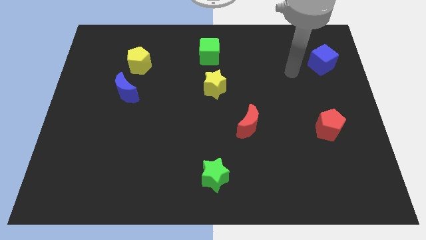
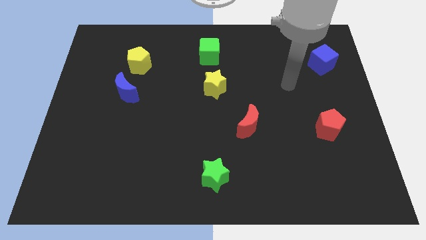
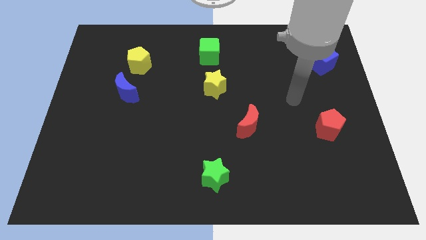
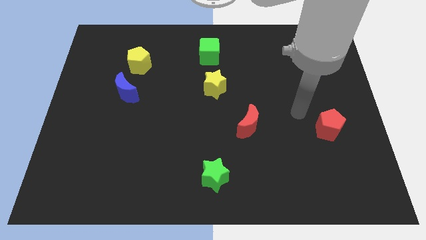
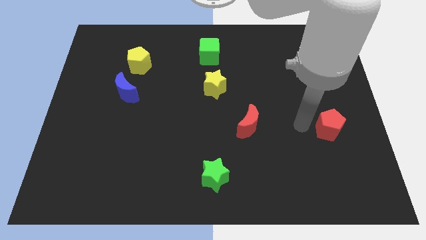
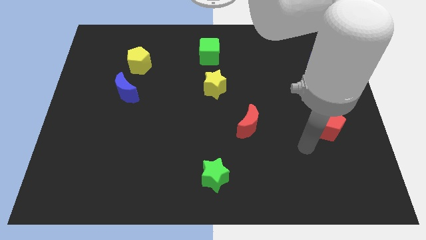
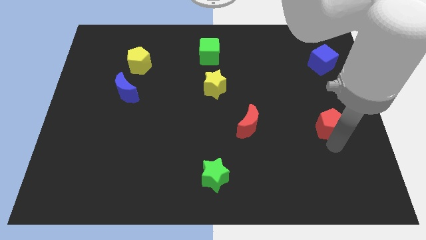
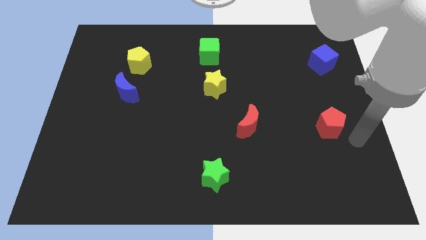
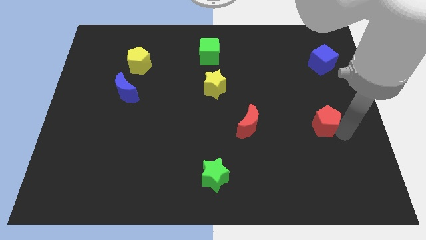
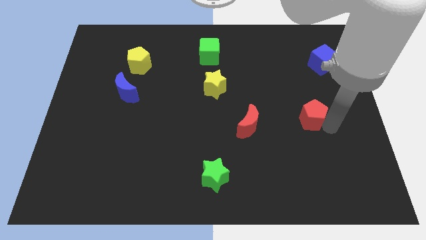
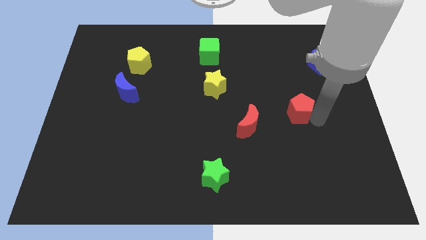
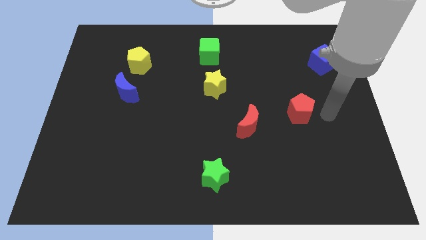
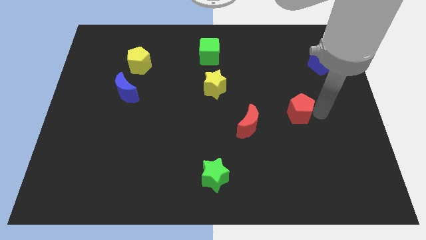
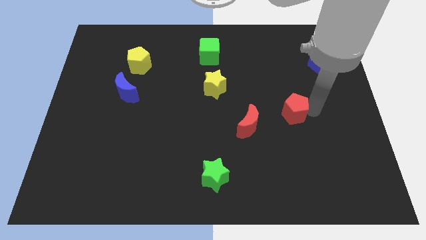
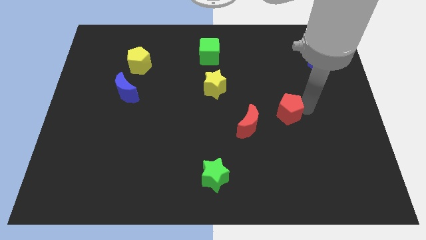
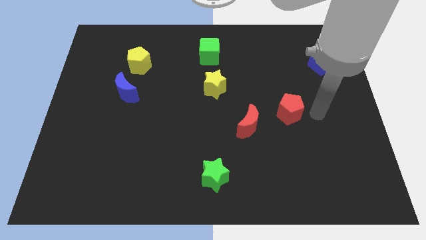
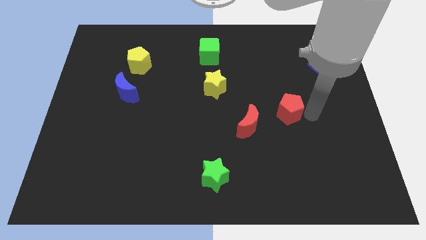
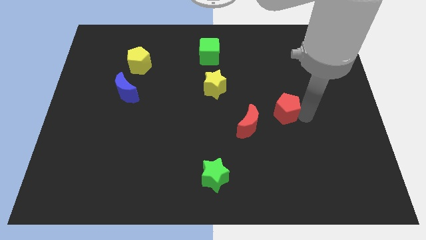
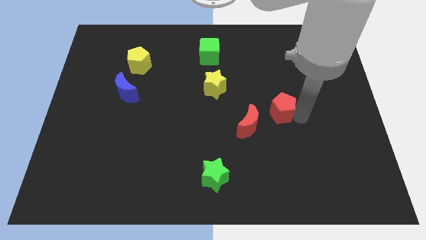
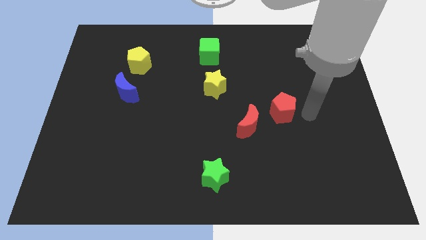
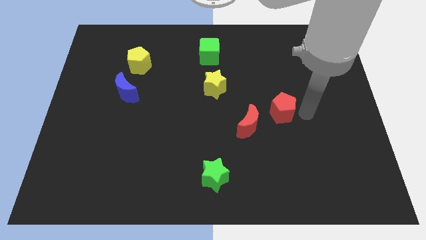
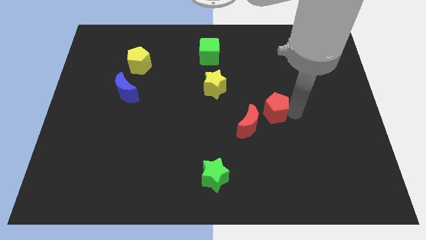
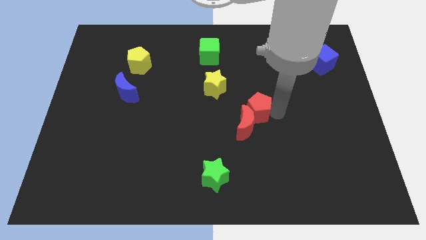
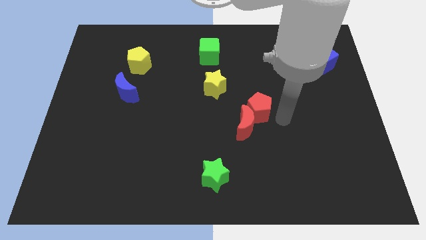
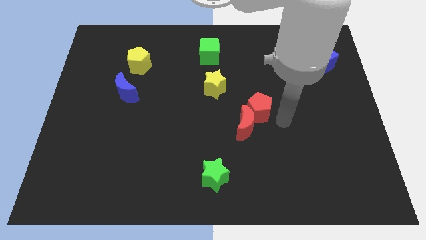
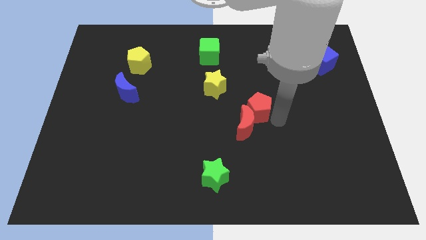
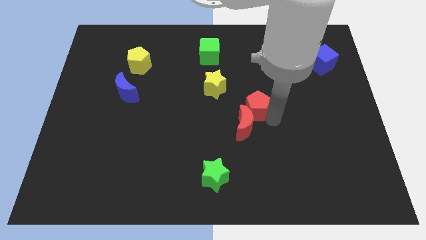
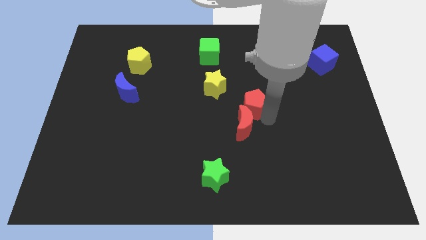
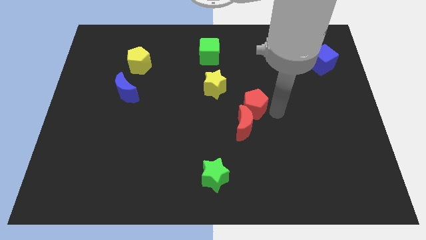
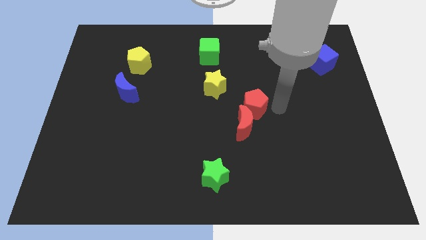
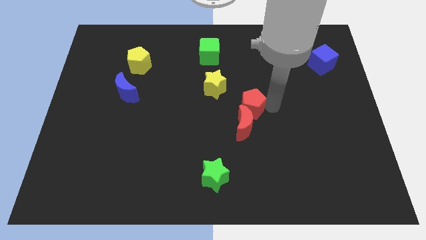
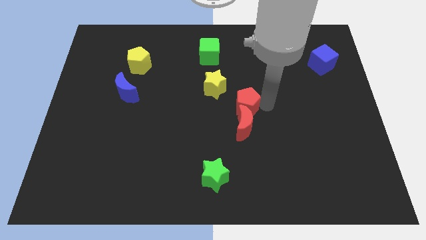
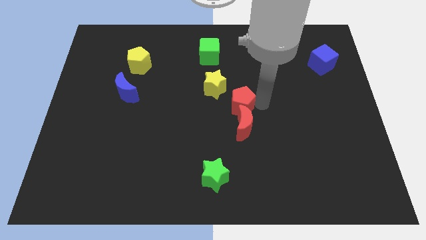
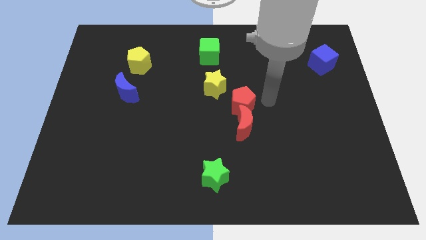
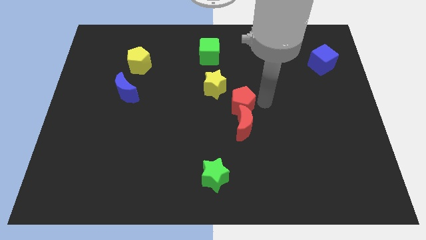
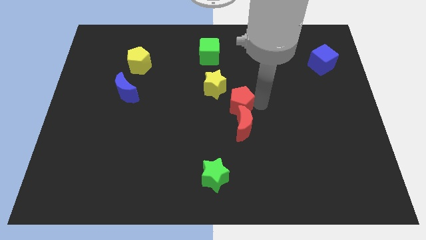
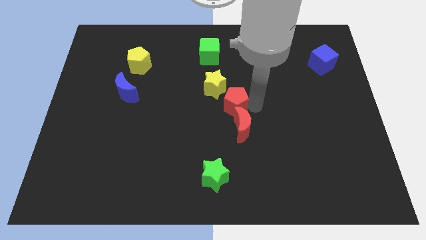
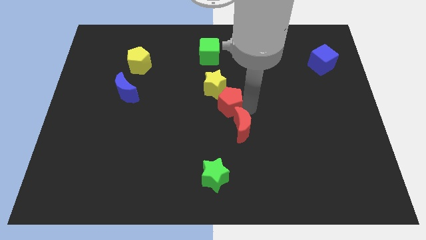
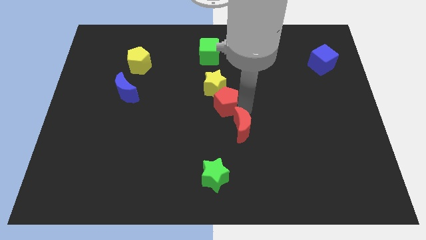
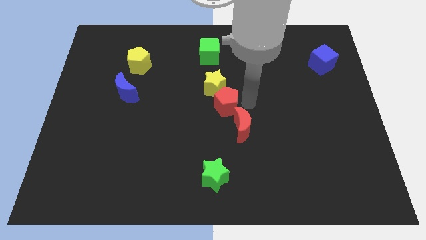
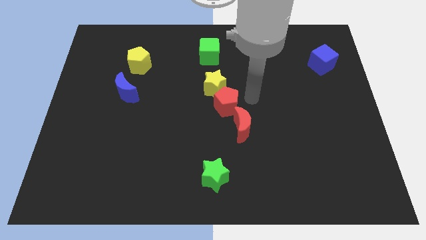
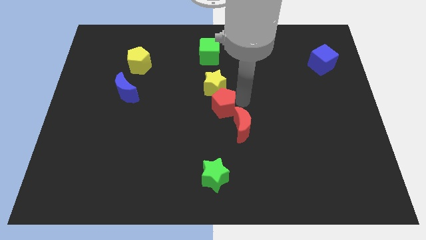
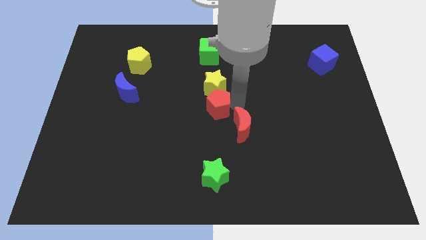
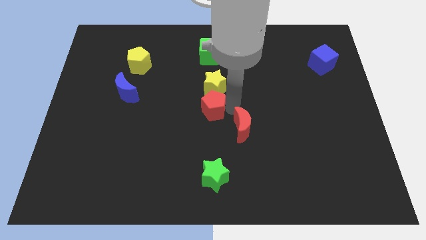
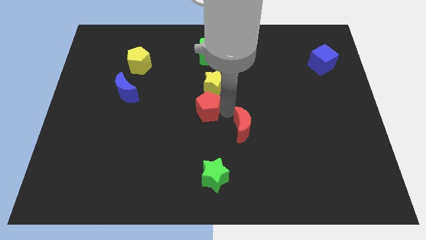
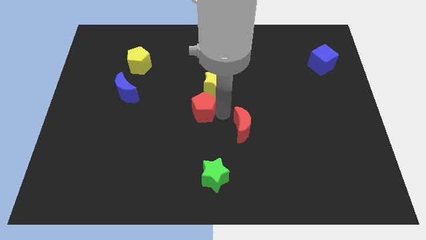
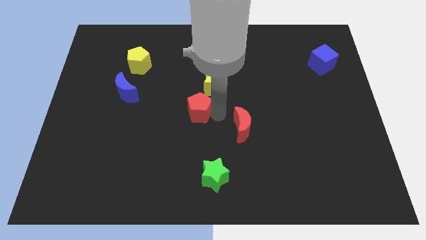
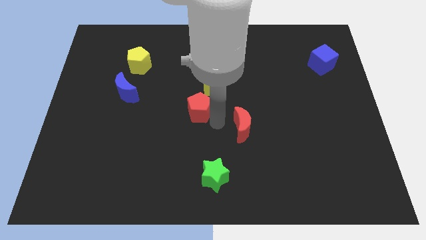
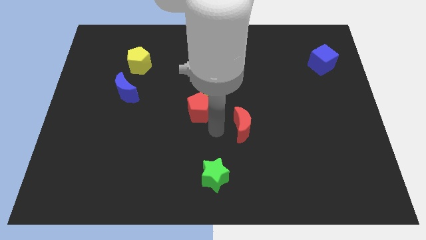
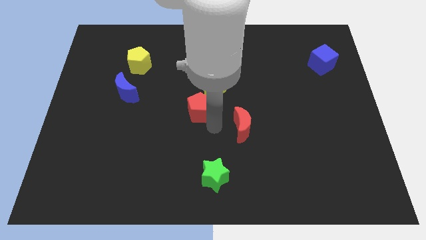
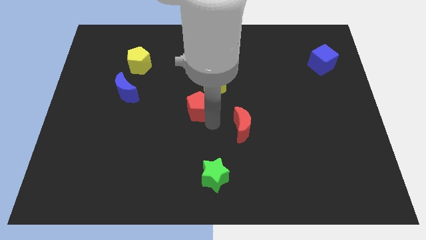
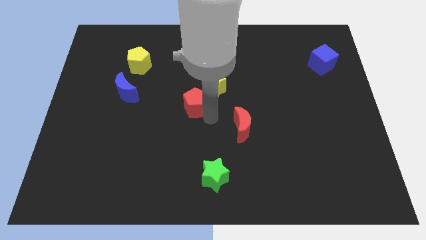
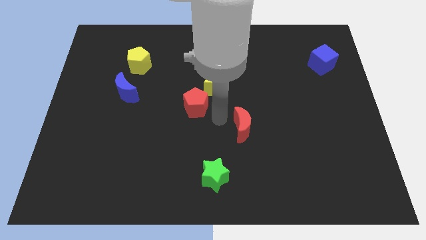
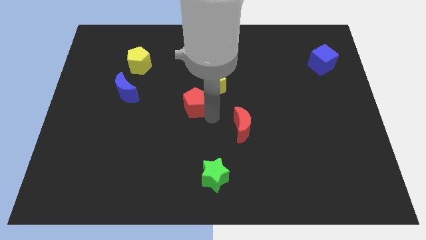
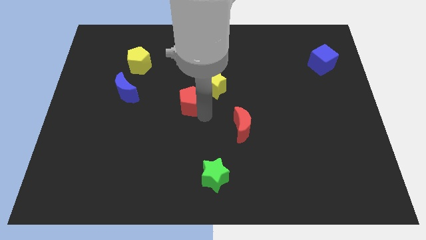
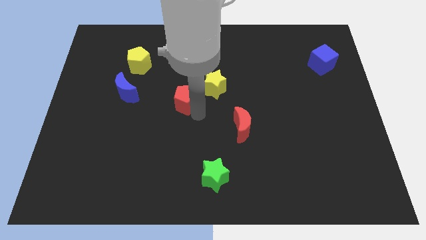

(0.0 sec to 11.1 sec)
slide the red pentagon to the right of the blue moon
